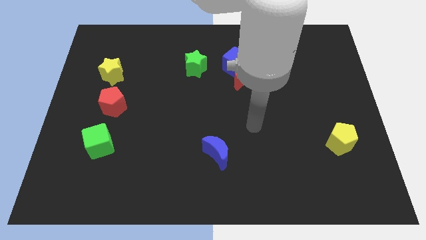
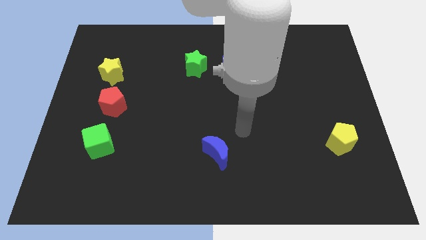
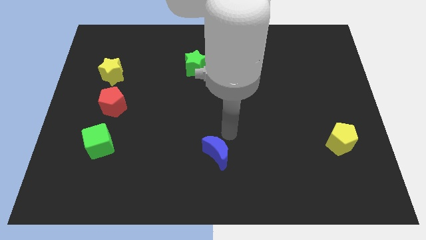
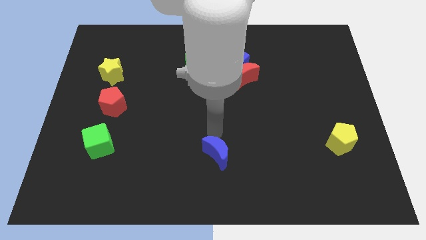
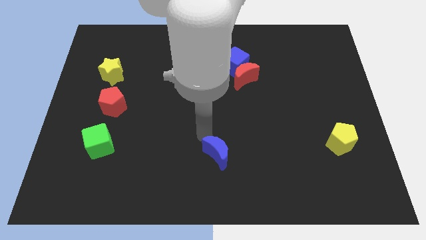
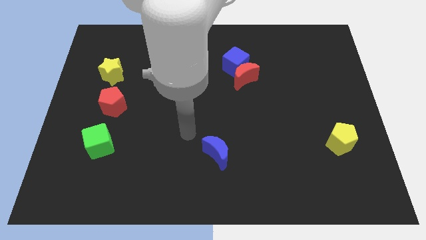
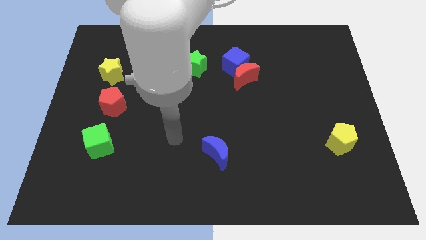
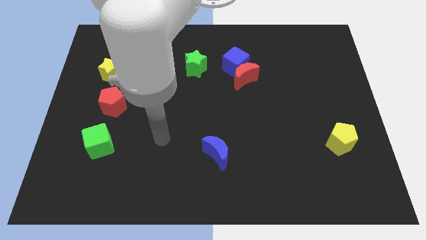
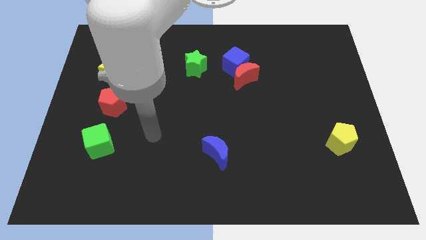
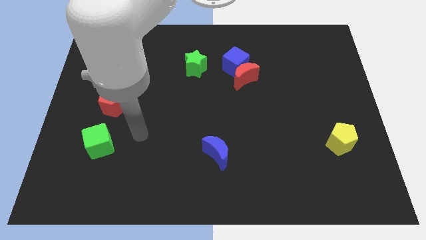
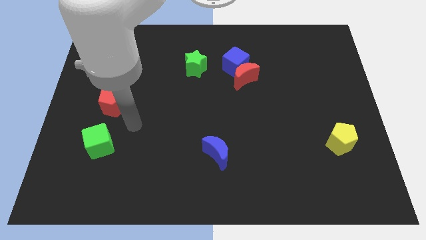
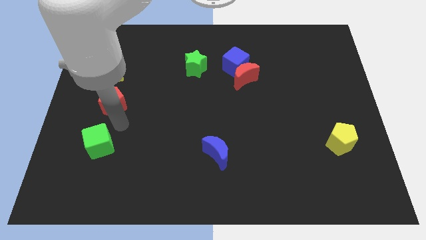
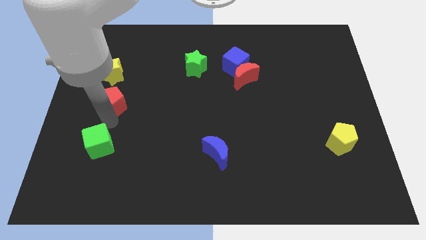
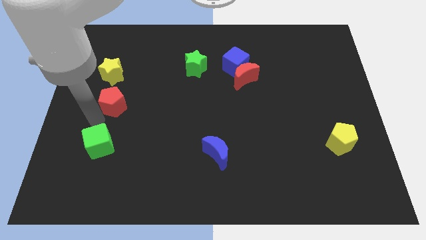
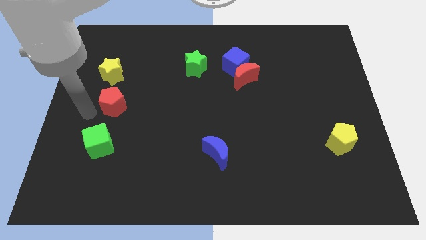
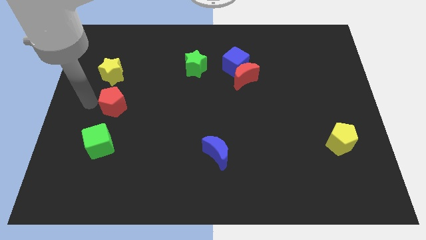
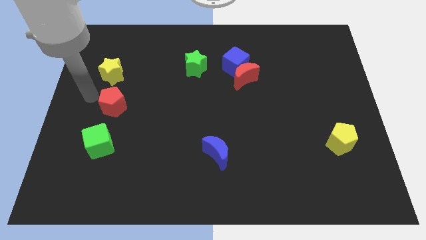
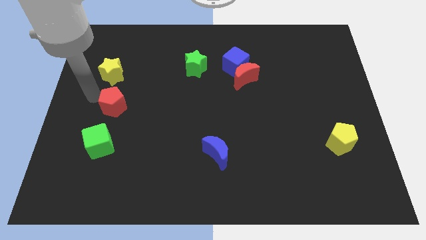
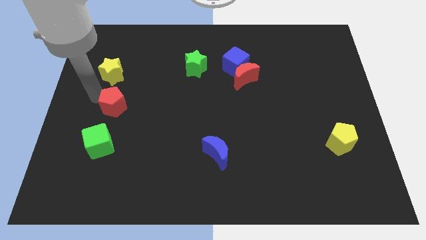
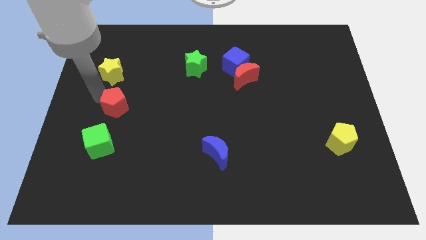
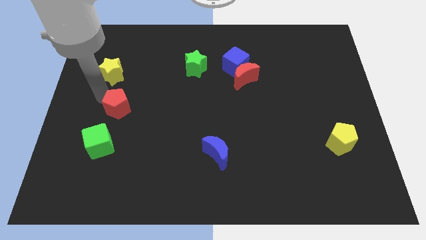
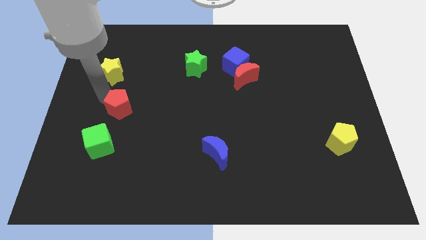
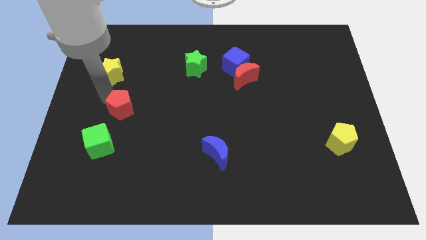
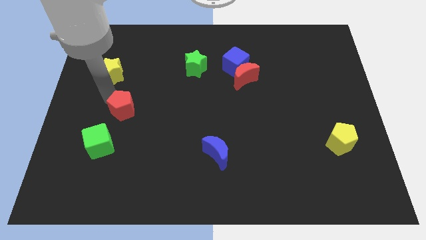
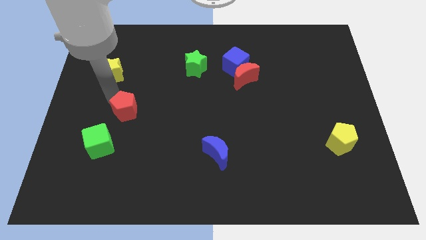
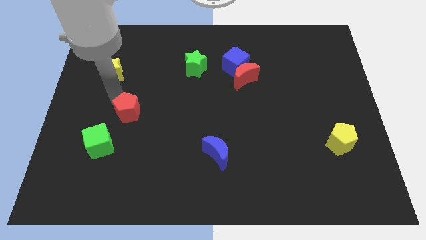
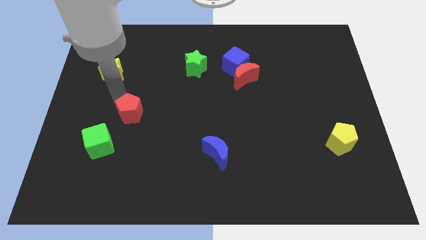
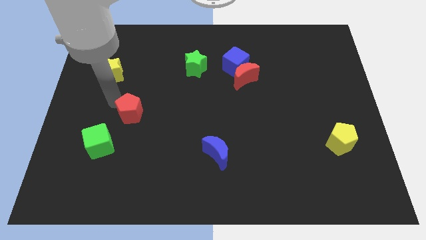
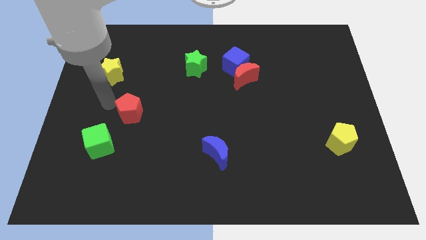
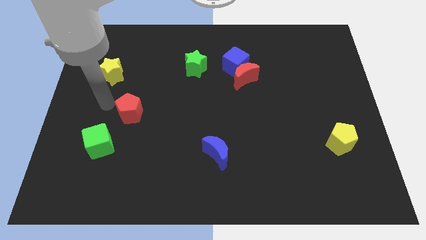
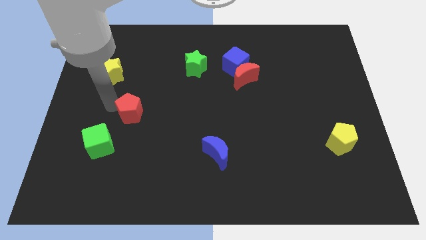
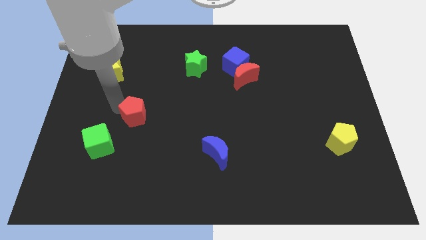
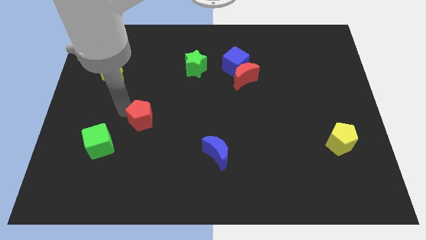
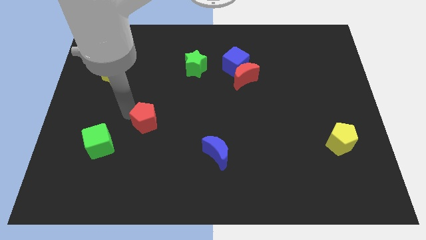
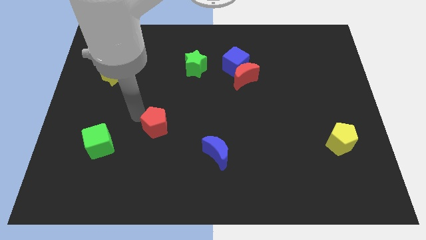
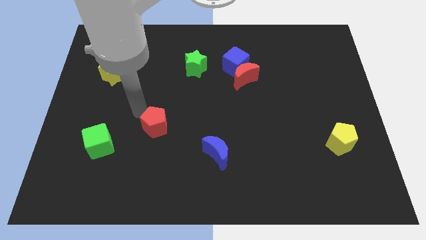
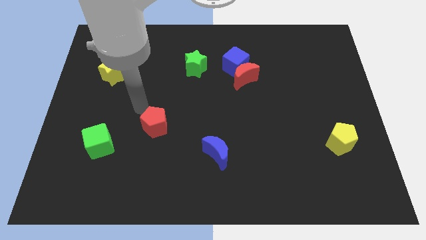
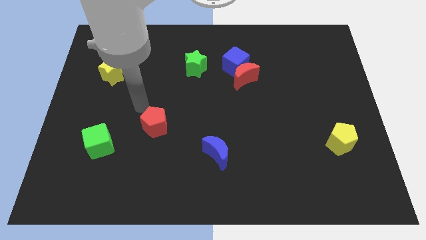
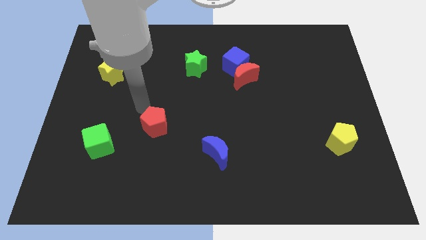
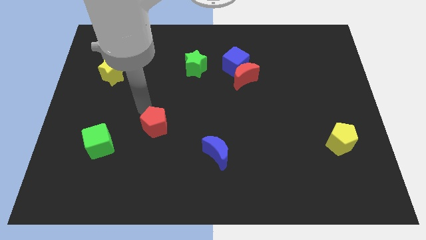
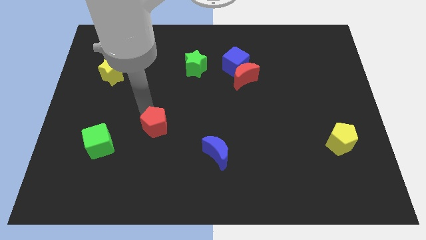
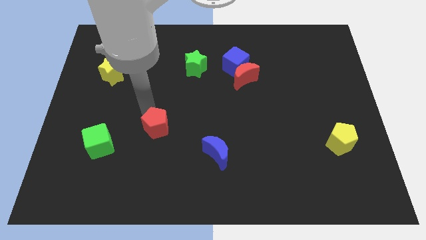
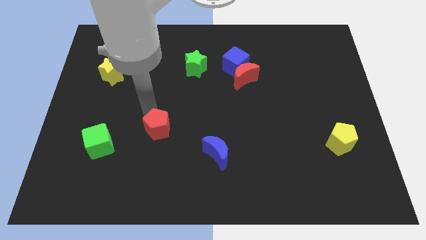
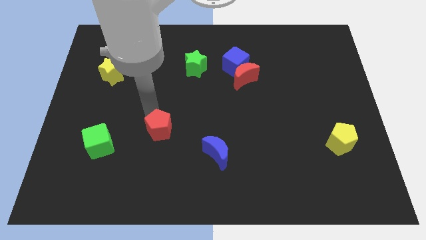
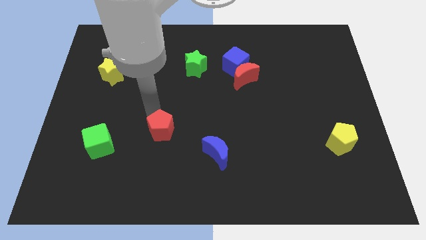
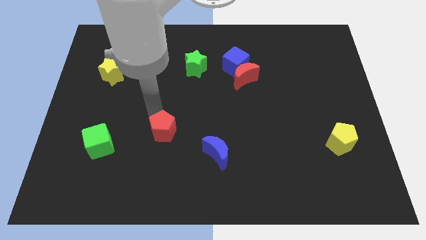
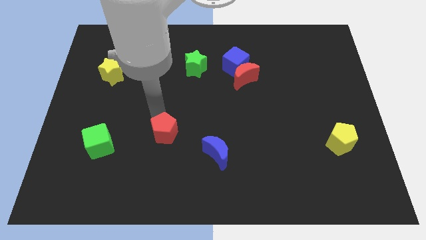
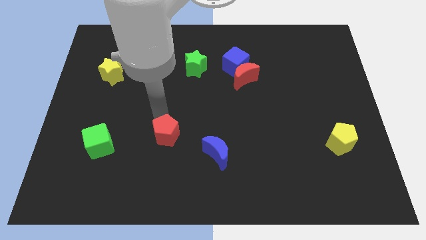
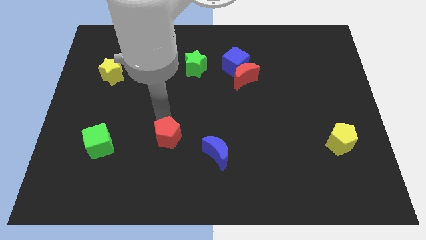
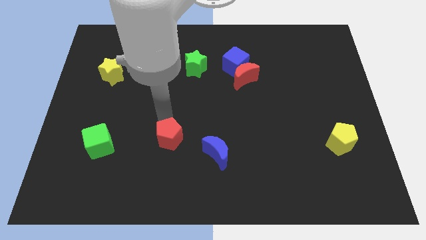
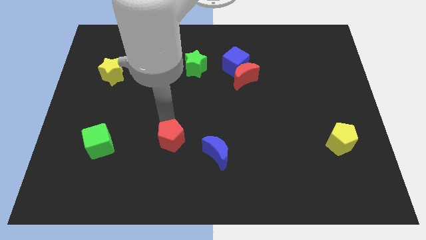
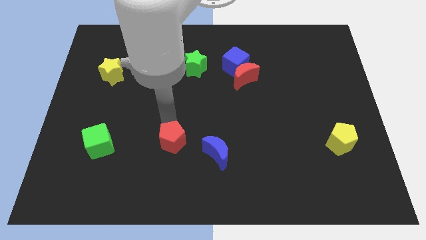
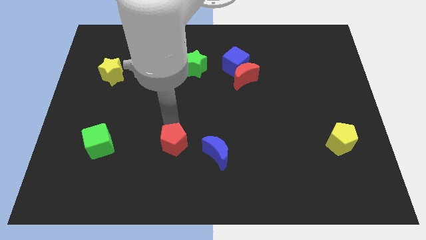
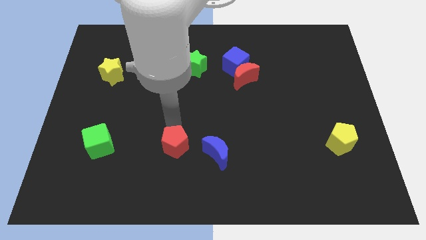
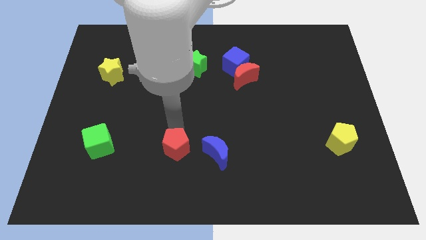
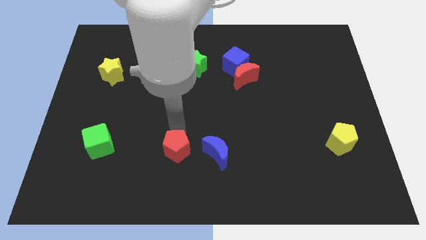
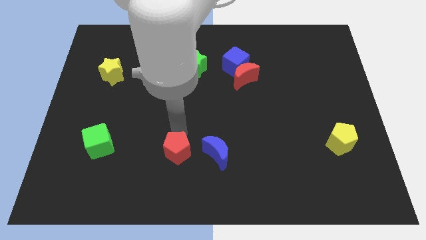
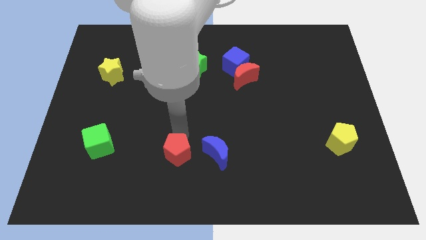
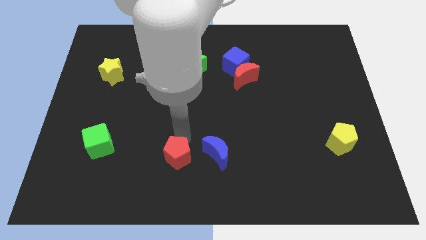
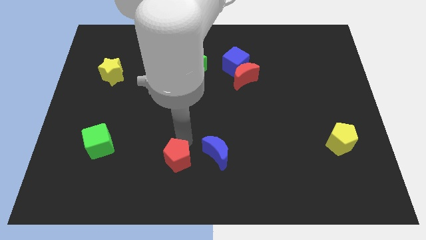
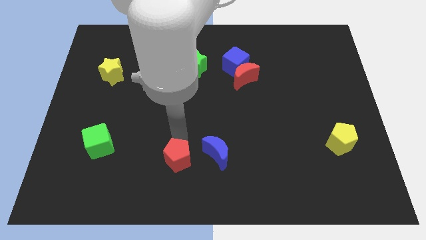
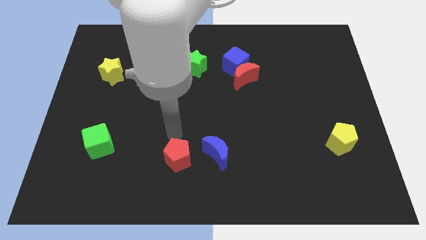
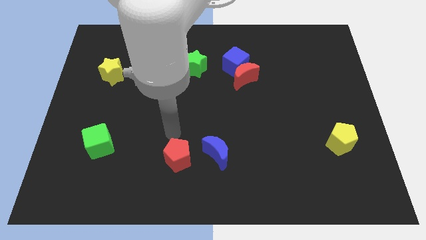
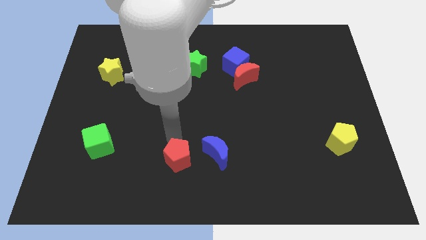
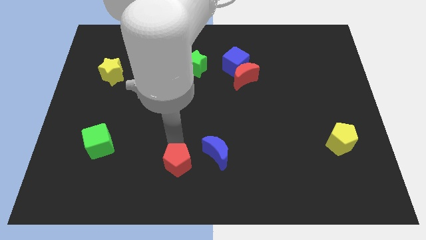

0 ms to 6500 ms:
put the red pentagon to the bottom

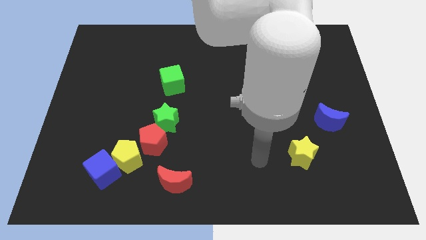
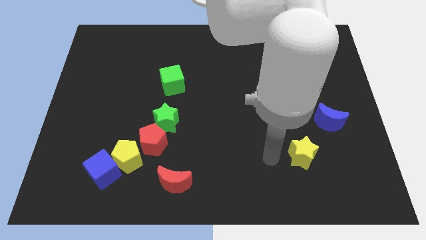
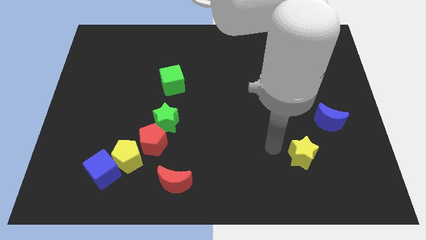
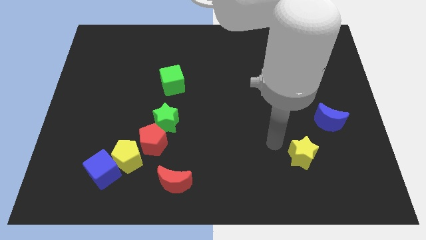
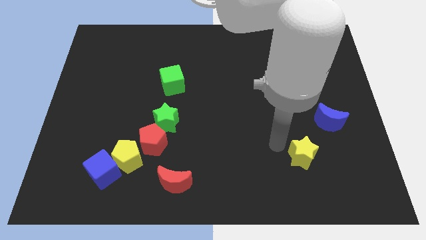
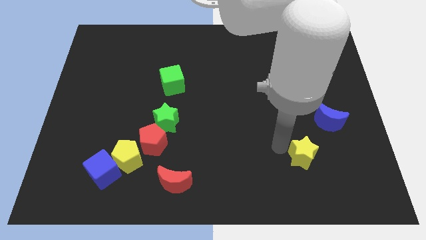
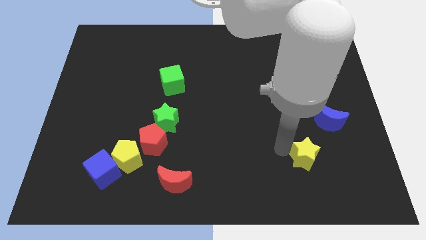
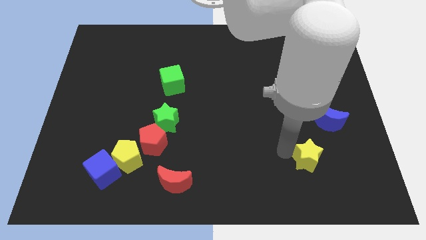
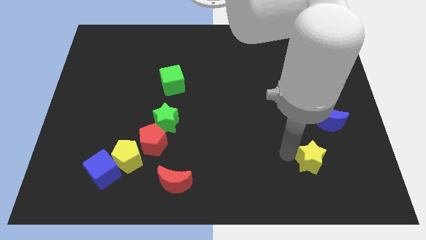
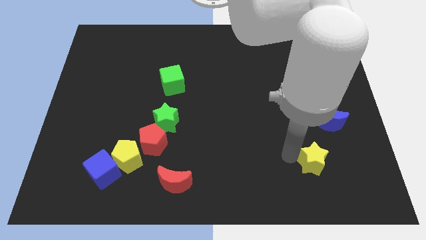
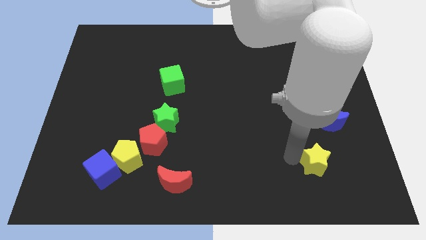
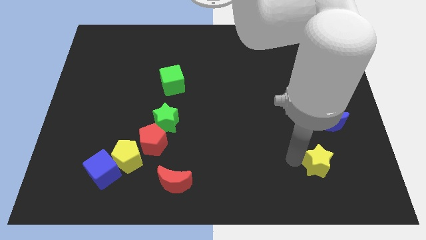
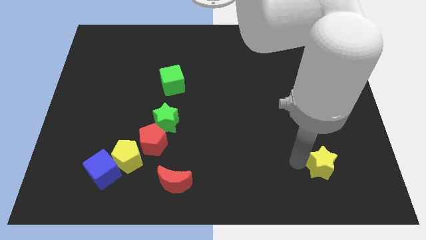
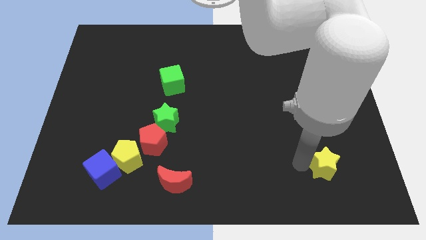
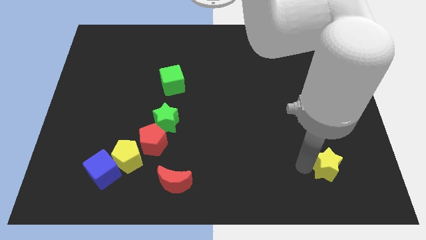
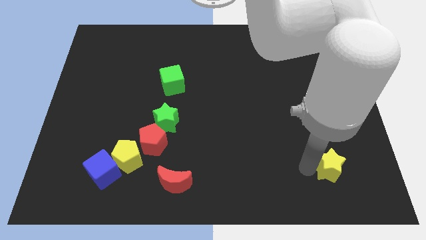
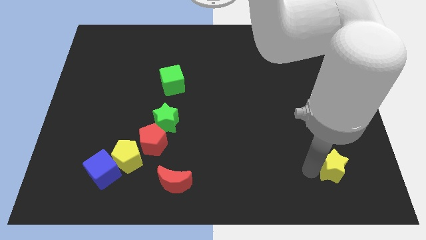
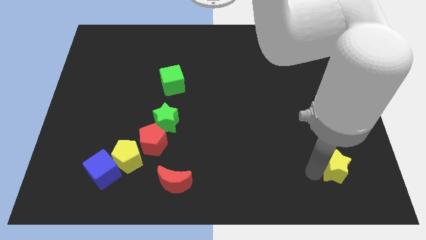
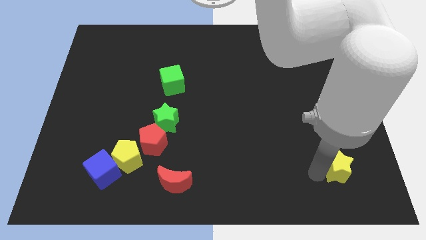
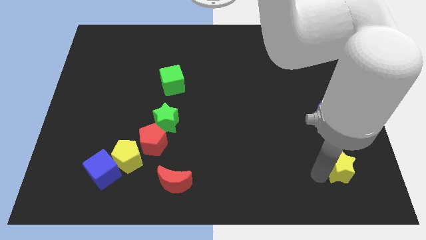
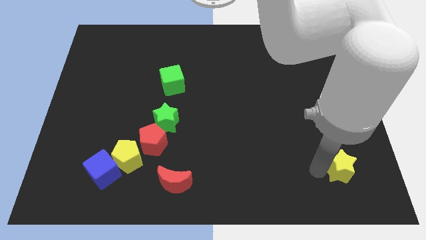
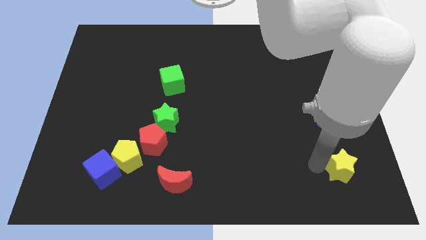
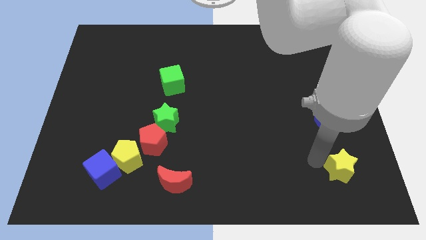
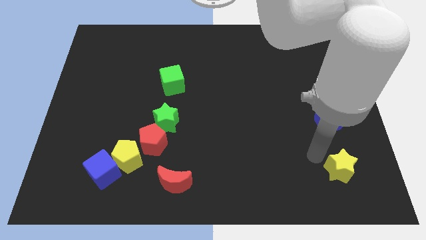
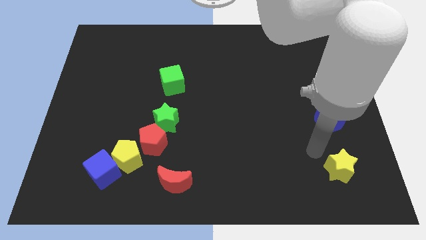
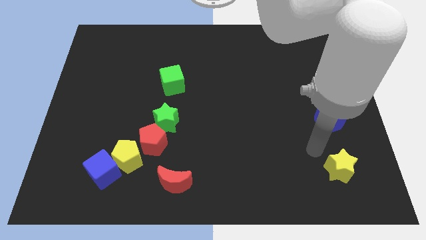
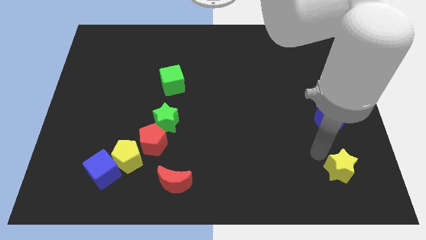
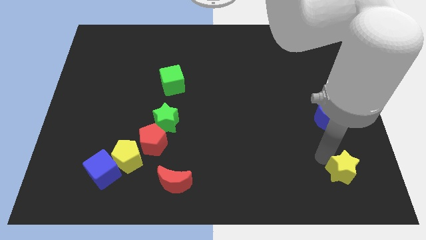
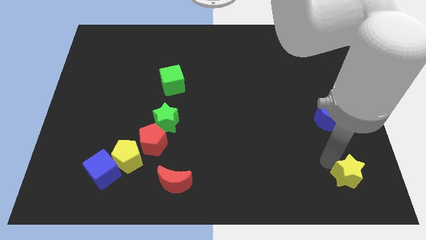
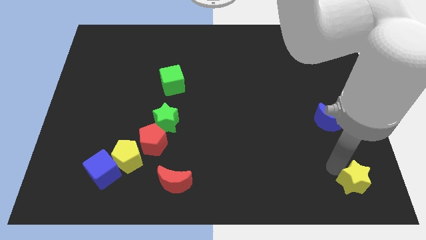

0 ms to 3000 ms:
put the yellow star to the bottom right corner
